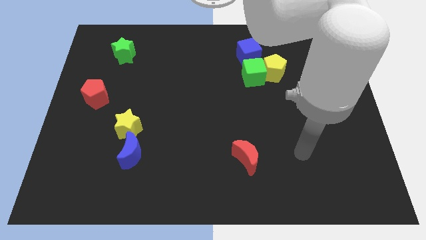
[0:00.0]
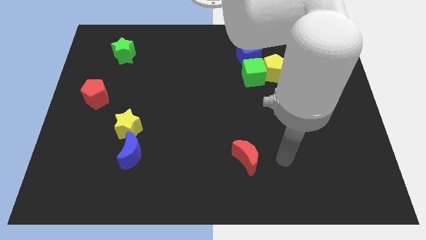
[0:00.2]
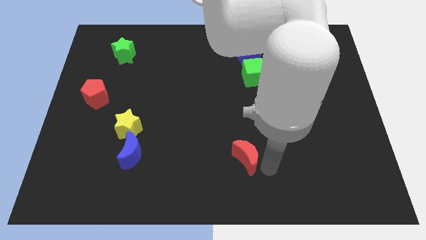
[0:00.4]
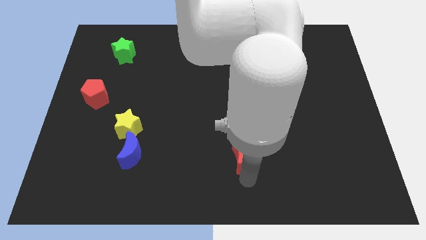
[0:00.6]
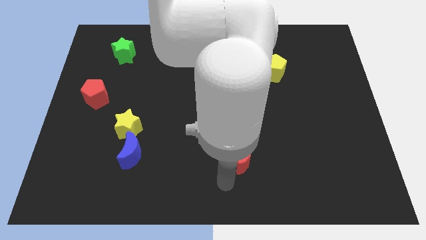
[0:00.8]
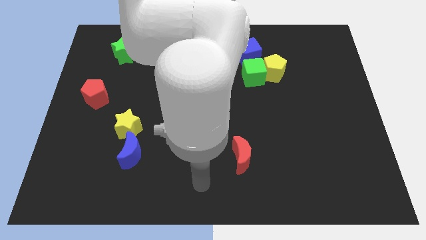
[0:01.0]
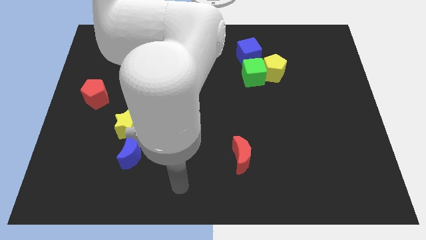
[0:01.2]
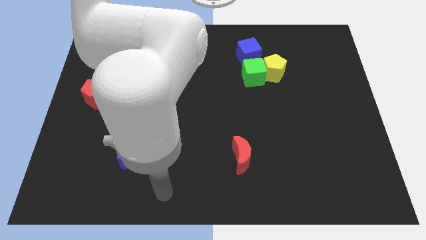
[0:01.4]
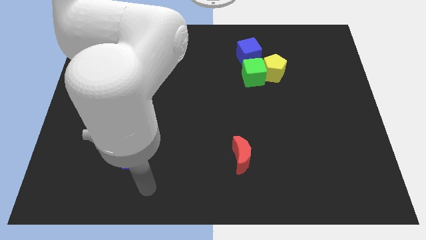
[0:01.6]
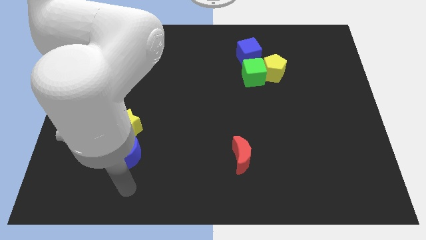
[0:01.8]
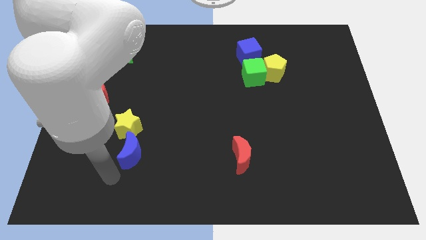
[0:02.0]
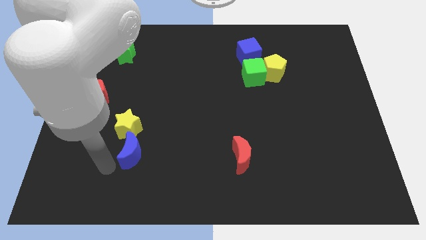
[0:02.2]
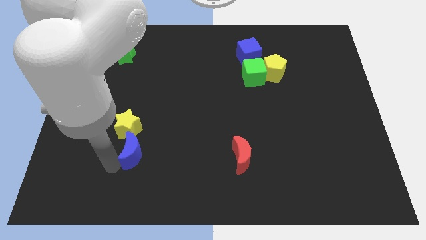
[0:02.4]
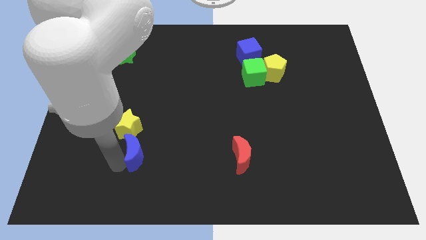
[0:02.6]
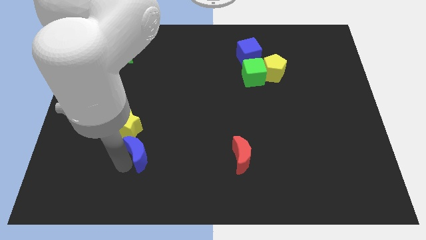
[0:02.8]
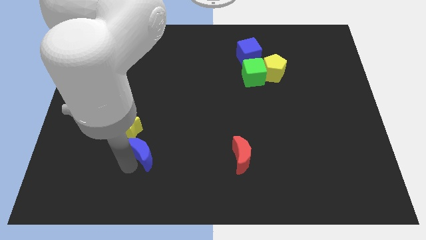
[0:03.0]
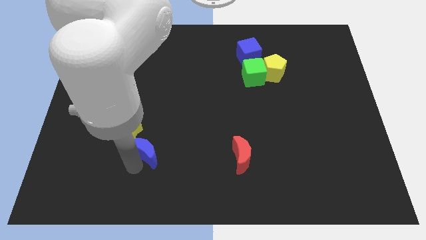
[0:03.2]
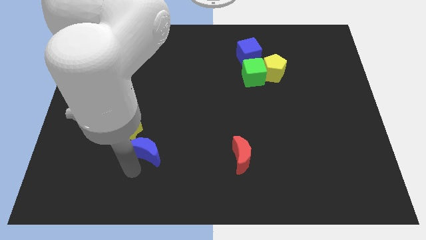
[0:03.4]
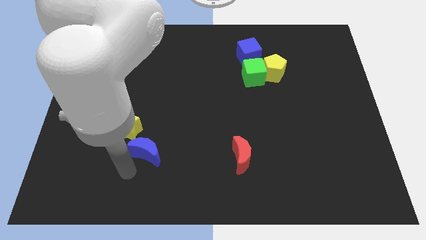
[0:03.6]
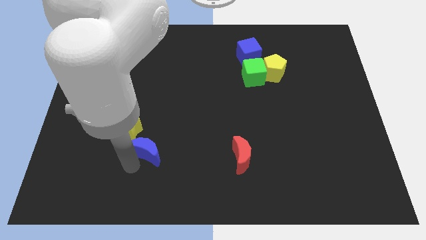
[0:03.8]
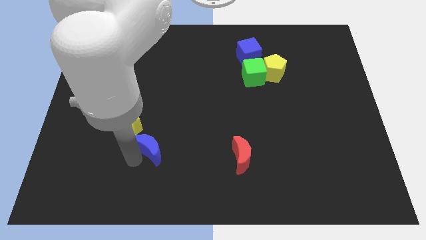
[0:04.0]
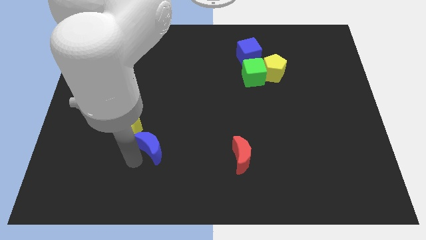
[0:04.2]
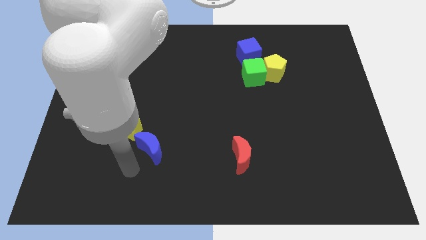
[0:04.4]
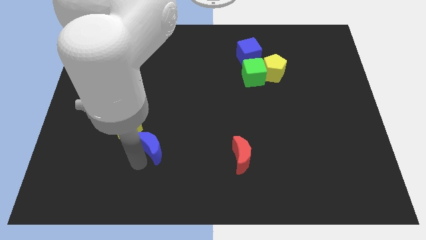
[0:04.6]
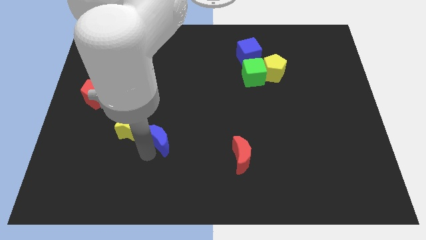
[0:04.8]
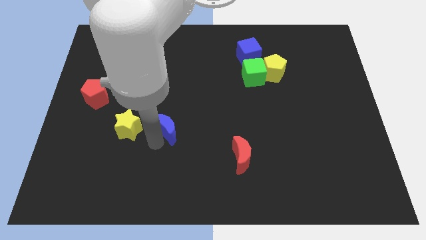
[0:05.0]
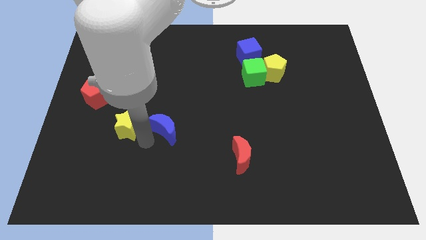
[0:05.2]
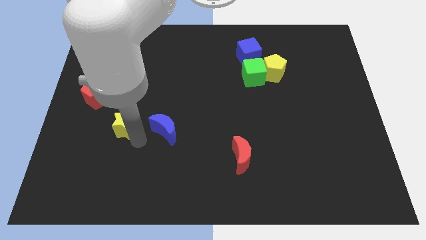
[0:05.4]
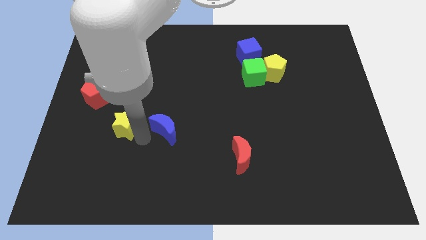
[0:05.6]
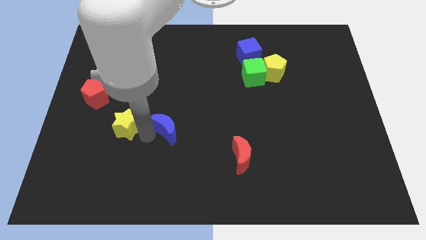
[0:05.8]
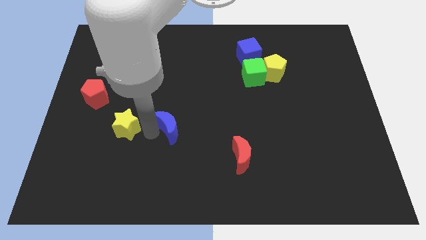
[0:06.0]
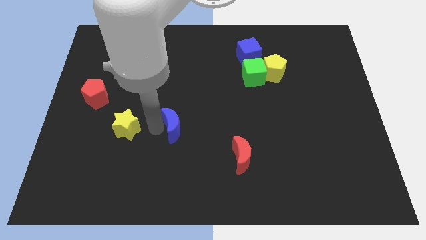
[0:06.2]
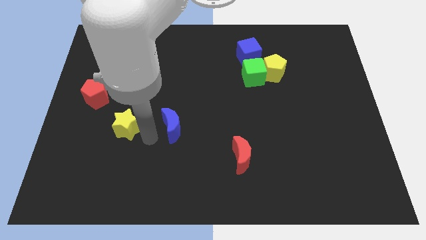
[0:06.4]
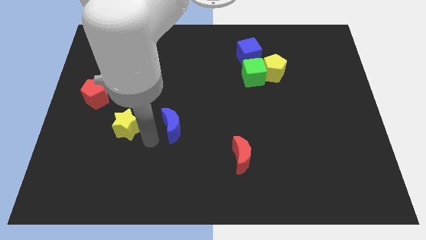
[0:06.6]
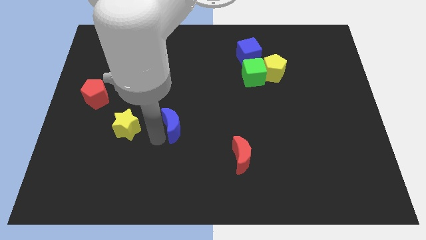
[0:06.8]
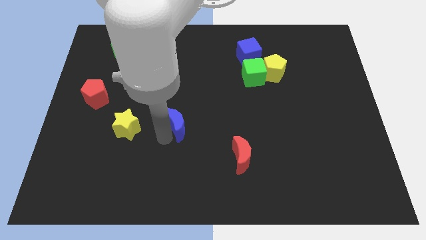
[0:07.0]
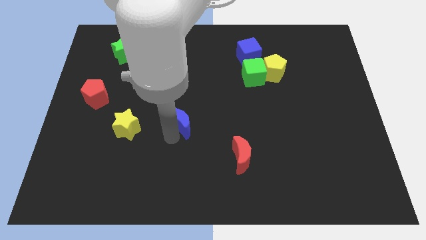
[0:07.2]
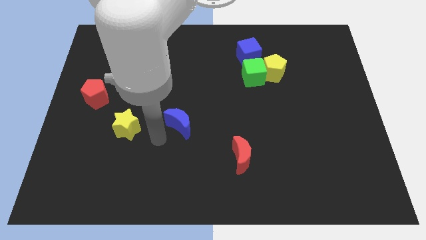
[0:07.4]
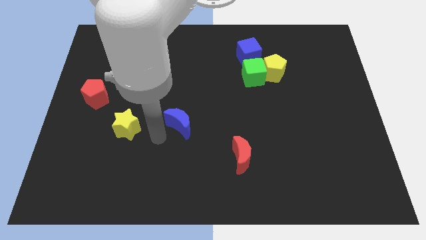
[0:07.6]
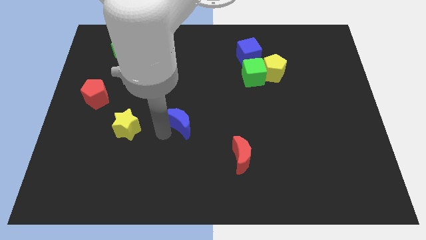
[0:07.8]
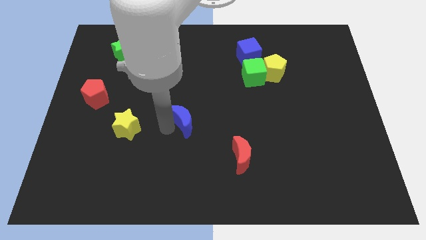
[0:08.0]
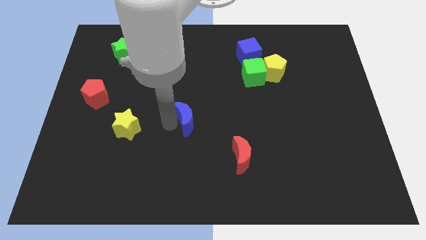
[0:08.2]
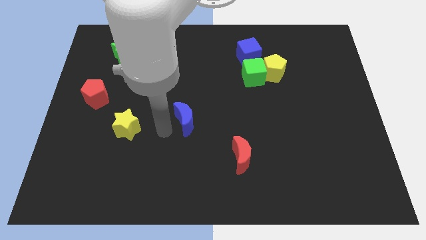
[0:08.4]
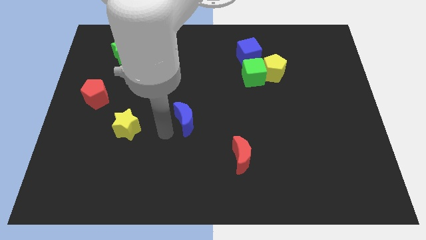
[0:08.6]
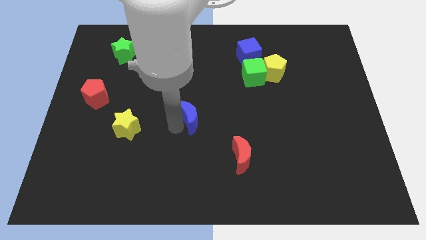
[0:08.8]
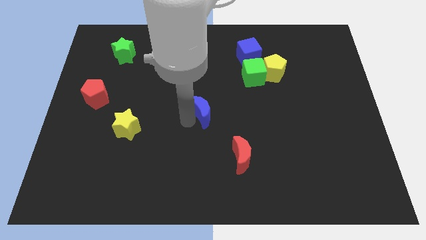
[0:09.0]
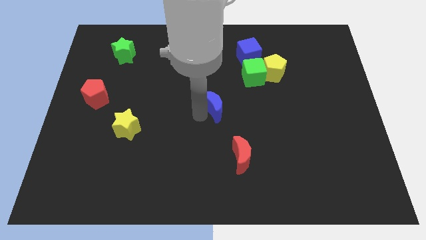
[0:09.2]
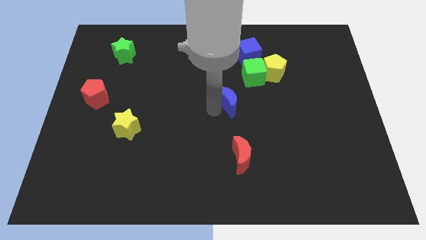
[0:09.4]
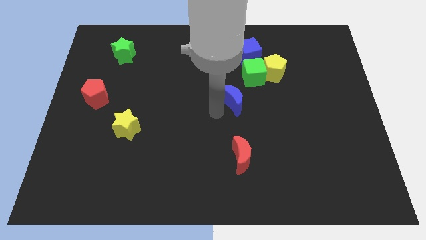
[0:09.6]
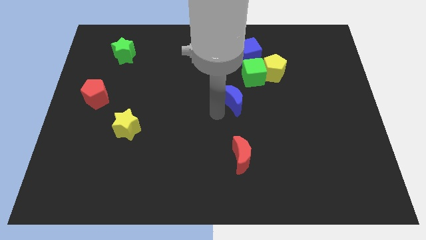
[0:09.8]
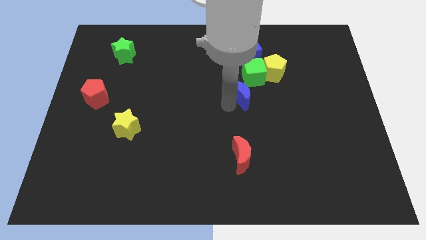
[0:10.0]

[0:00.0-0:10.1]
push the blue moon to the bottom left side of the yellow pentagon

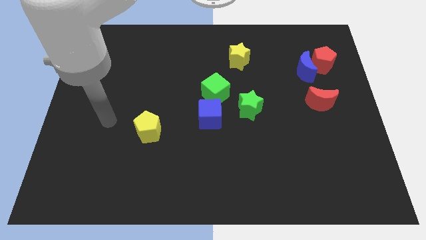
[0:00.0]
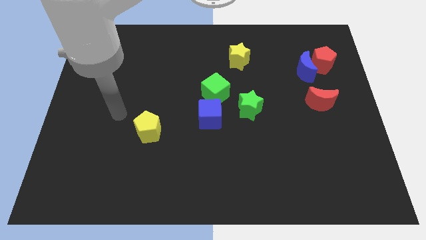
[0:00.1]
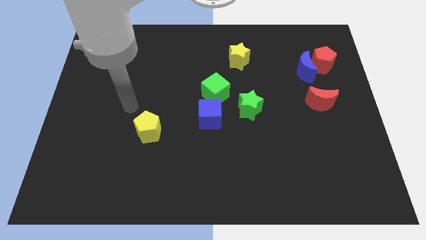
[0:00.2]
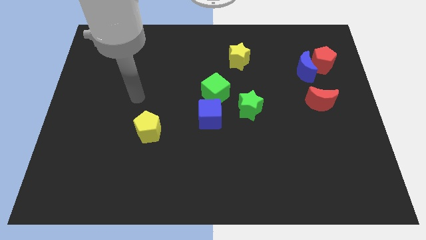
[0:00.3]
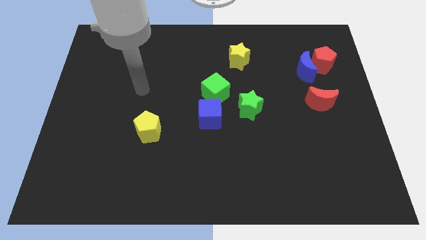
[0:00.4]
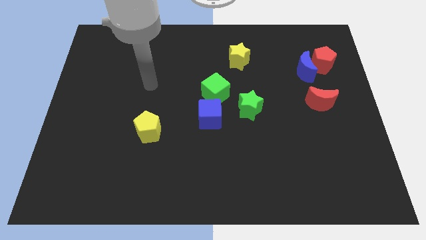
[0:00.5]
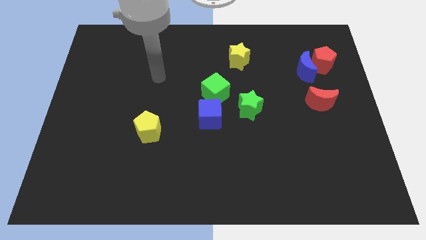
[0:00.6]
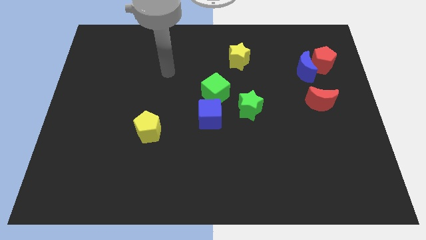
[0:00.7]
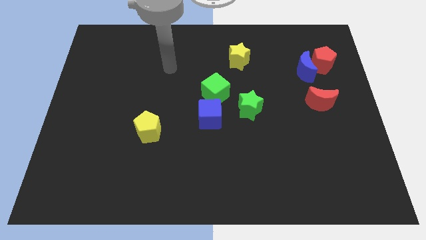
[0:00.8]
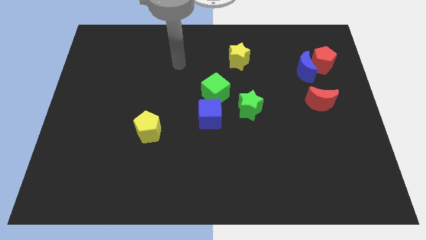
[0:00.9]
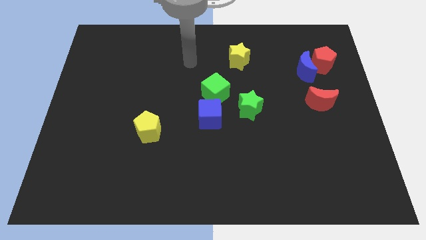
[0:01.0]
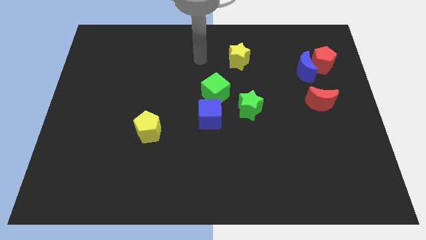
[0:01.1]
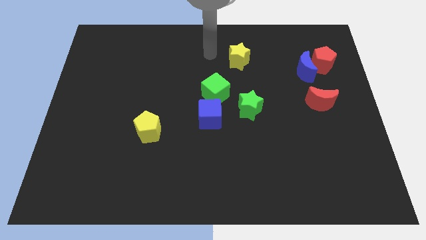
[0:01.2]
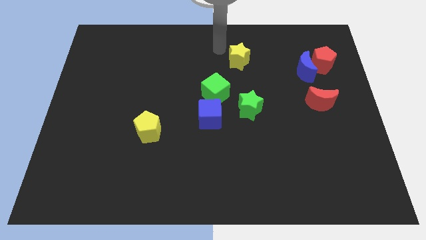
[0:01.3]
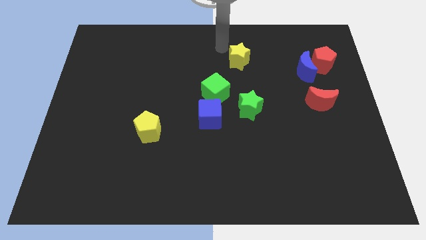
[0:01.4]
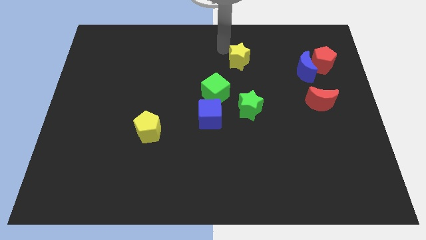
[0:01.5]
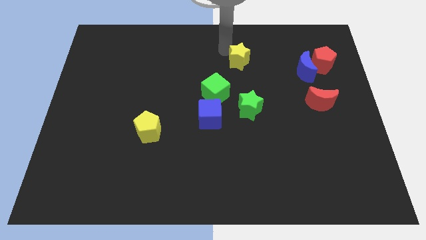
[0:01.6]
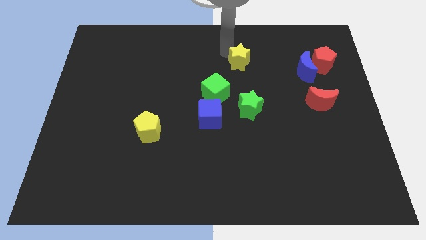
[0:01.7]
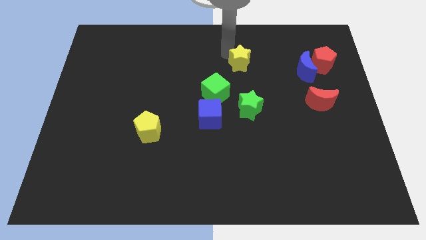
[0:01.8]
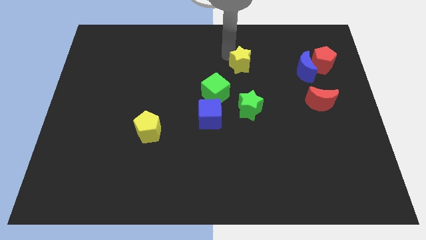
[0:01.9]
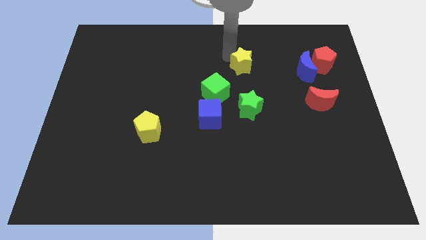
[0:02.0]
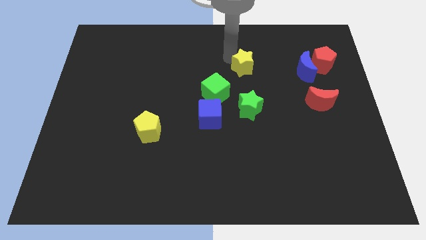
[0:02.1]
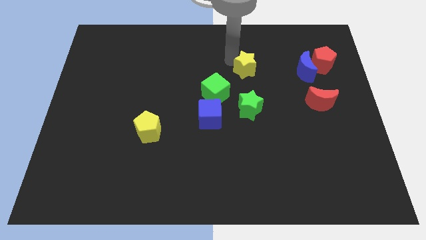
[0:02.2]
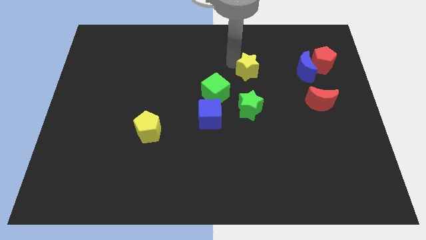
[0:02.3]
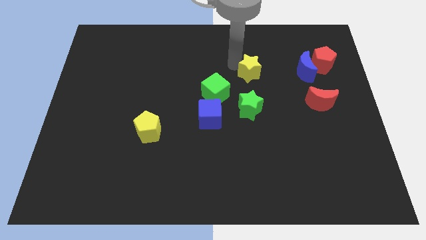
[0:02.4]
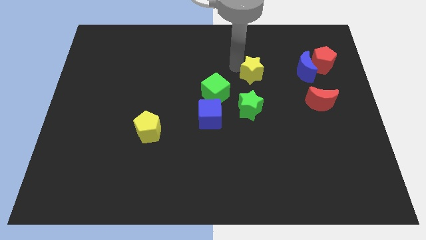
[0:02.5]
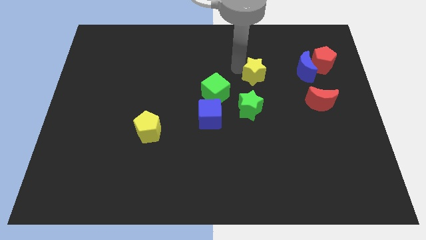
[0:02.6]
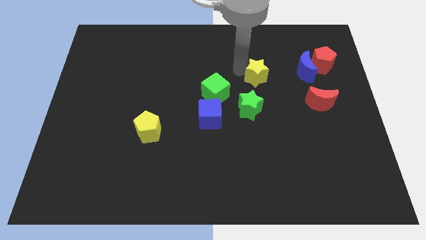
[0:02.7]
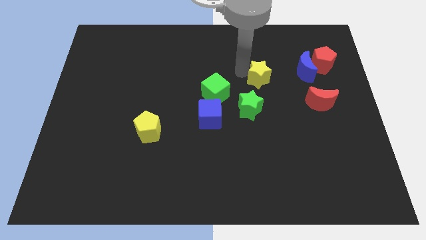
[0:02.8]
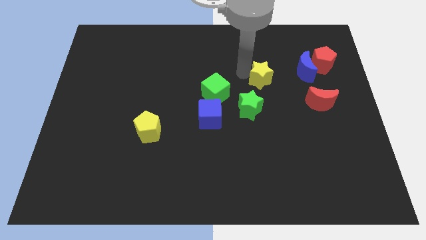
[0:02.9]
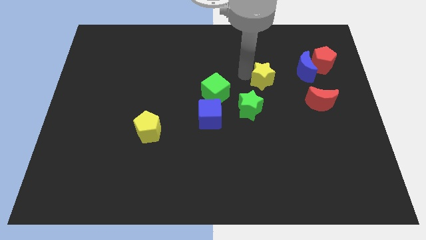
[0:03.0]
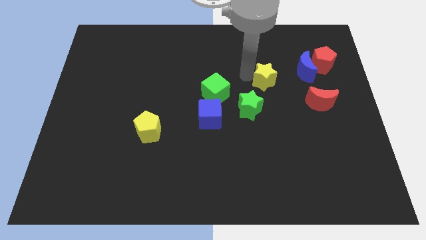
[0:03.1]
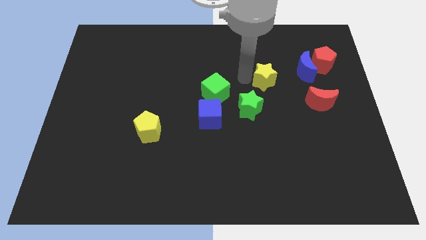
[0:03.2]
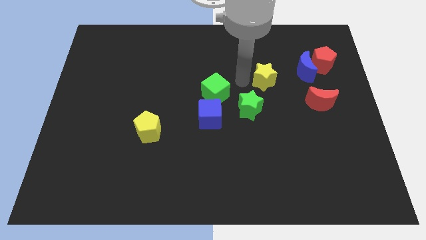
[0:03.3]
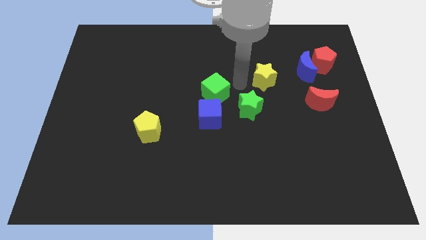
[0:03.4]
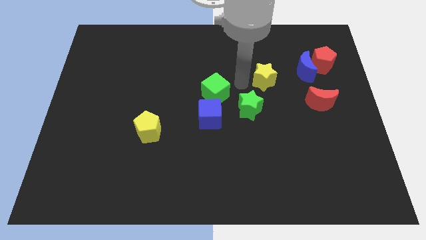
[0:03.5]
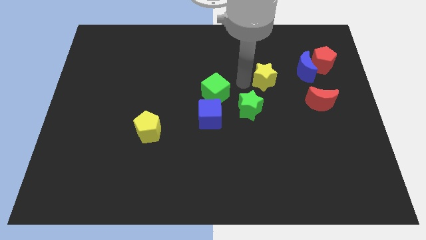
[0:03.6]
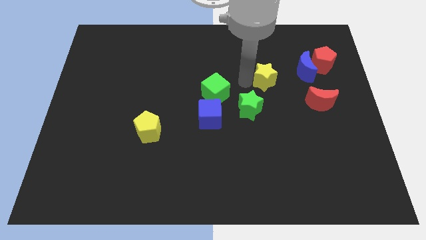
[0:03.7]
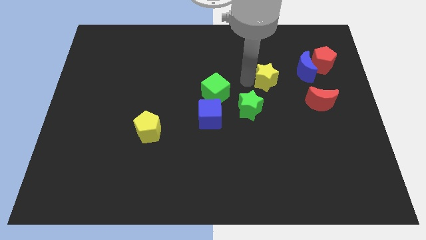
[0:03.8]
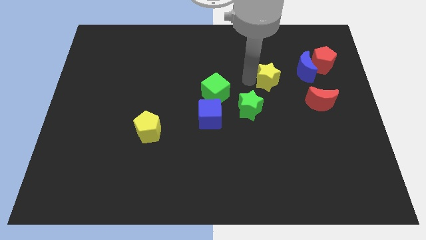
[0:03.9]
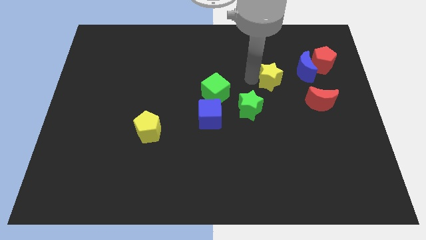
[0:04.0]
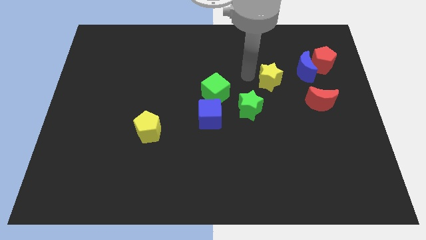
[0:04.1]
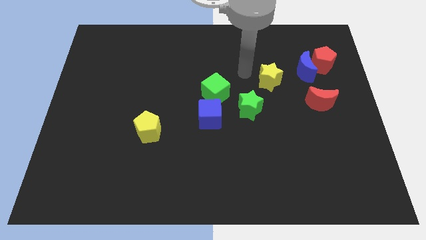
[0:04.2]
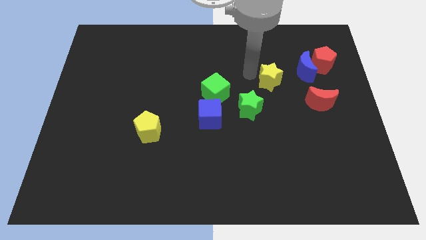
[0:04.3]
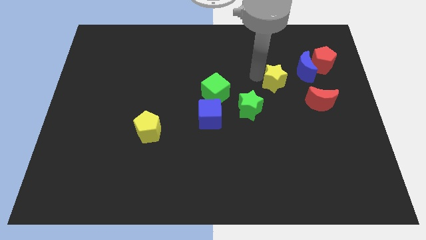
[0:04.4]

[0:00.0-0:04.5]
move the yellow star to the top left of the red moon
